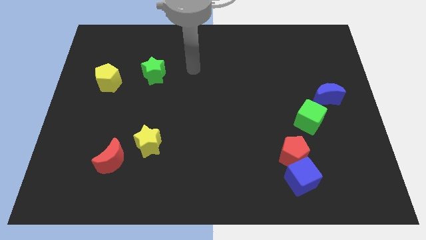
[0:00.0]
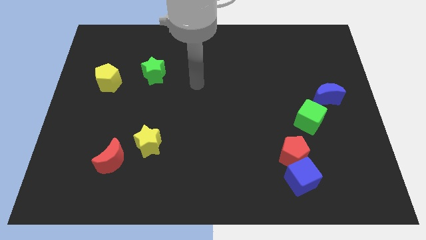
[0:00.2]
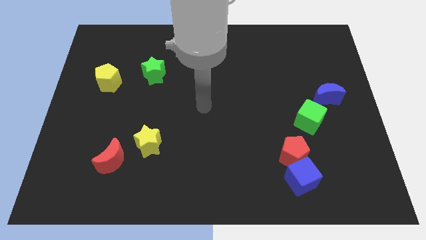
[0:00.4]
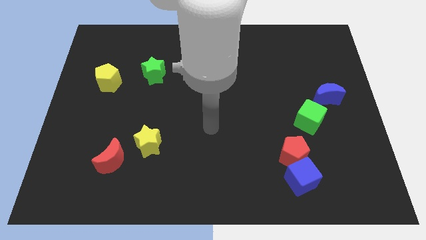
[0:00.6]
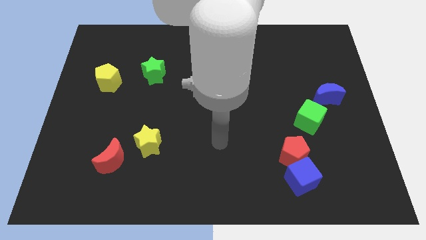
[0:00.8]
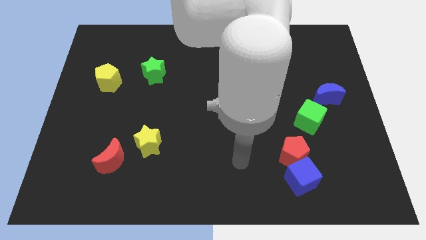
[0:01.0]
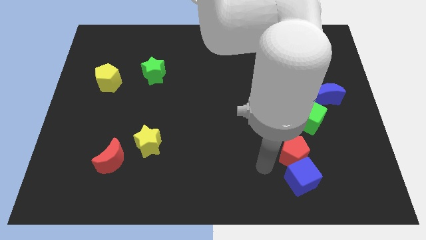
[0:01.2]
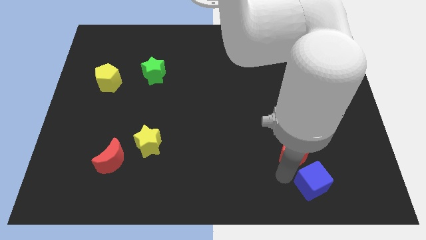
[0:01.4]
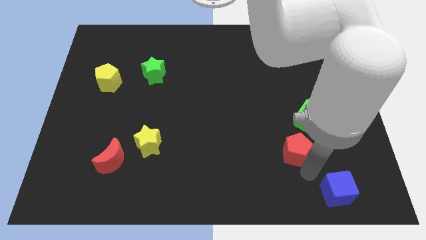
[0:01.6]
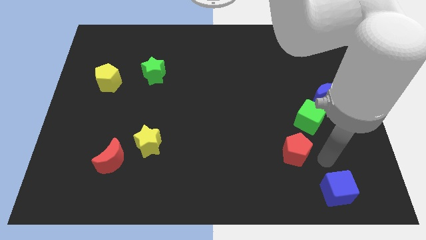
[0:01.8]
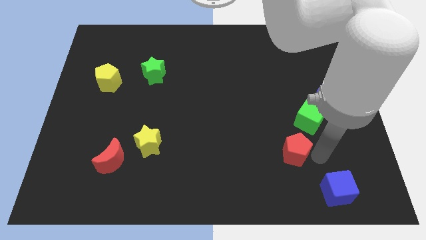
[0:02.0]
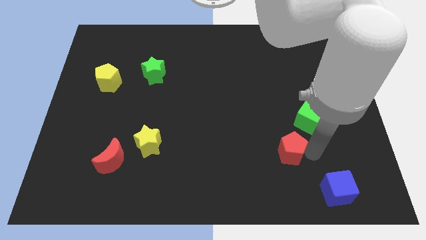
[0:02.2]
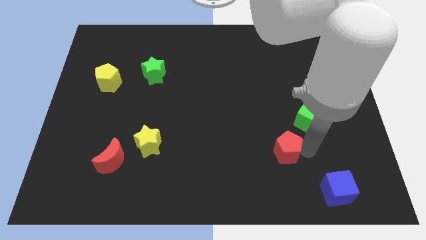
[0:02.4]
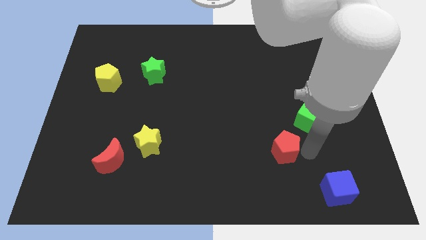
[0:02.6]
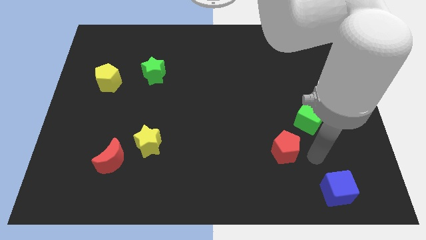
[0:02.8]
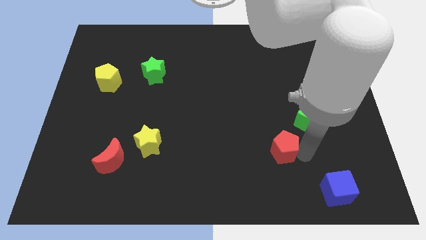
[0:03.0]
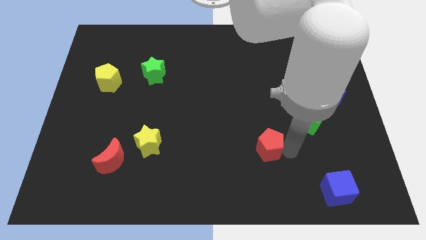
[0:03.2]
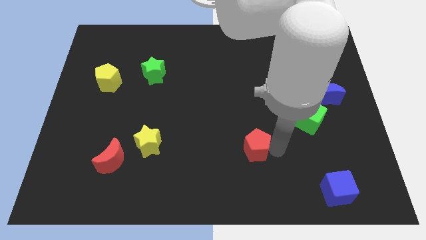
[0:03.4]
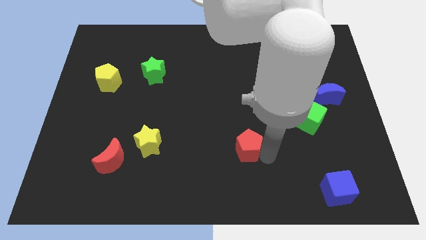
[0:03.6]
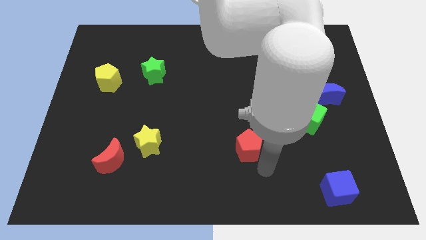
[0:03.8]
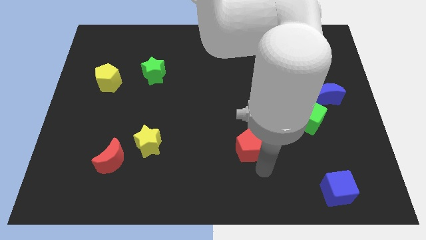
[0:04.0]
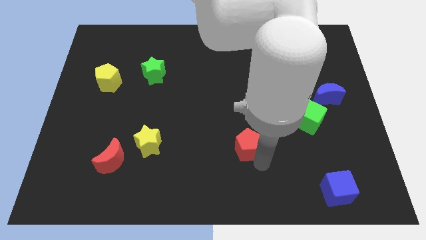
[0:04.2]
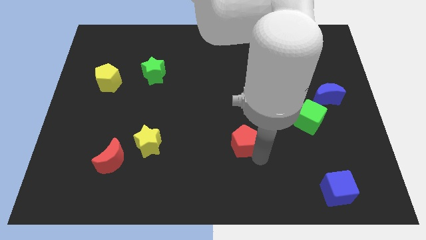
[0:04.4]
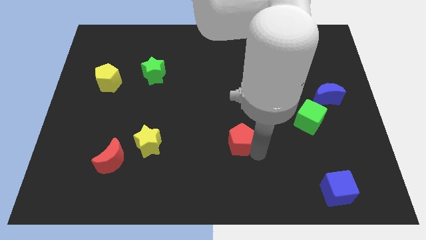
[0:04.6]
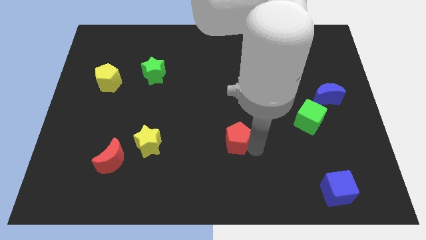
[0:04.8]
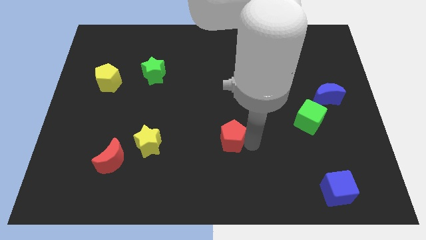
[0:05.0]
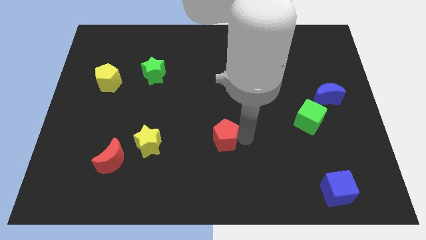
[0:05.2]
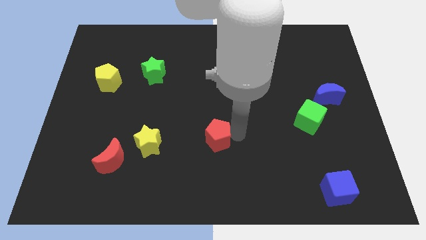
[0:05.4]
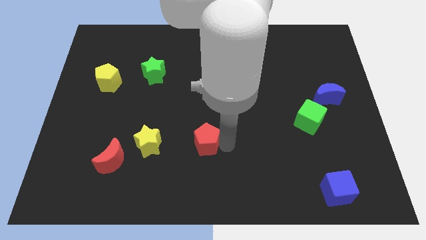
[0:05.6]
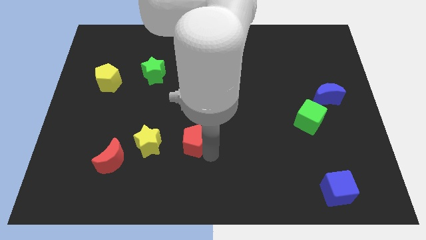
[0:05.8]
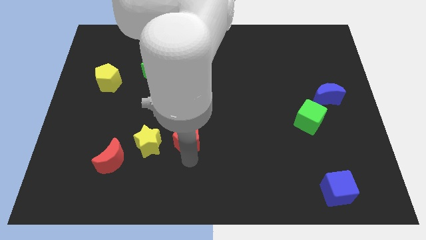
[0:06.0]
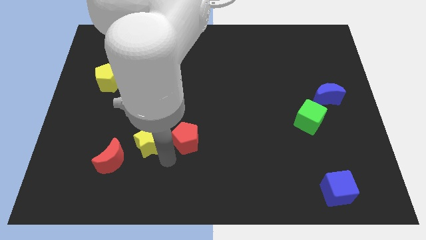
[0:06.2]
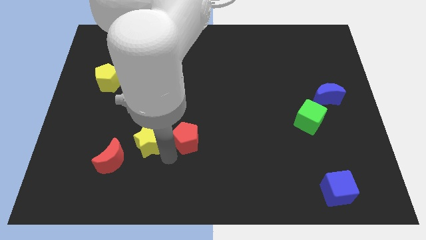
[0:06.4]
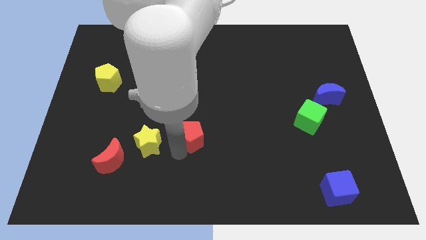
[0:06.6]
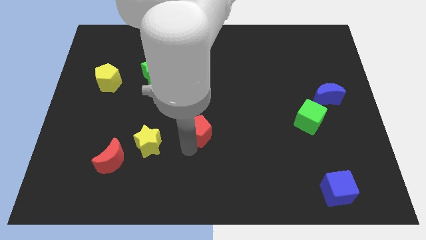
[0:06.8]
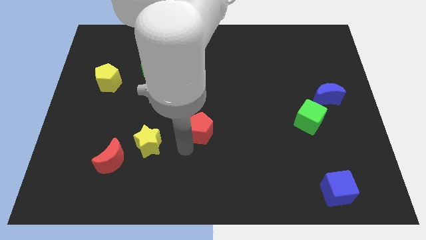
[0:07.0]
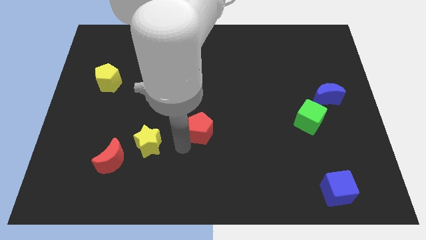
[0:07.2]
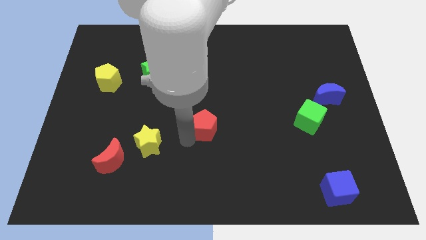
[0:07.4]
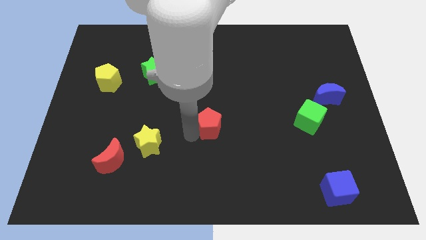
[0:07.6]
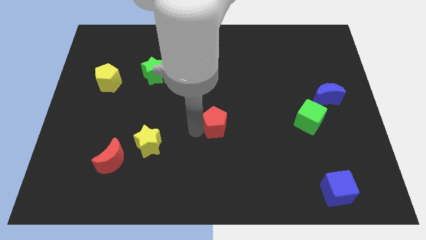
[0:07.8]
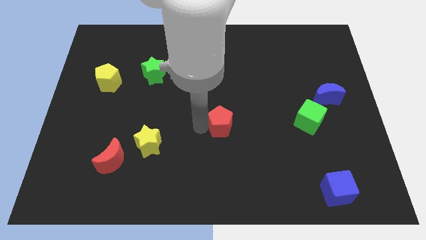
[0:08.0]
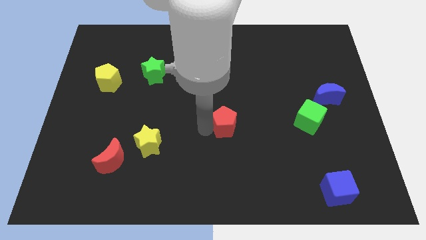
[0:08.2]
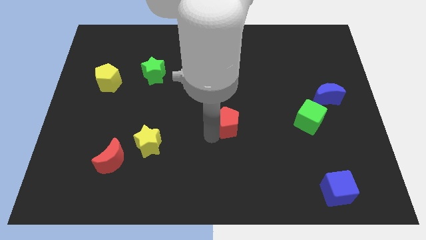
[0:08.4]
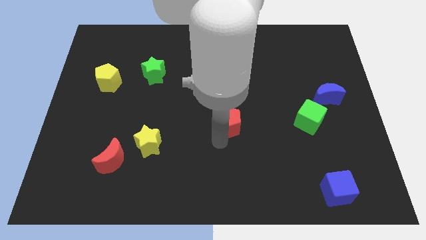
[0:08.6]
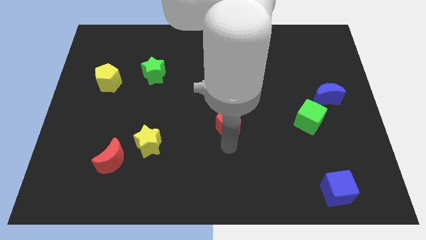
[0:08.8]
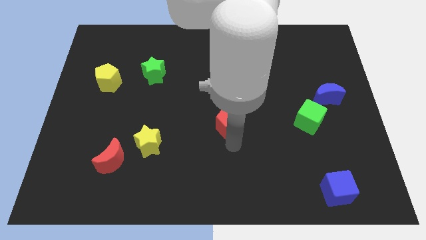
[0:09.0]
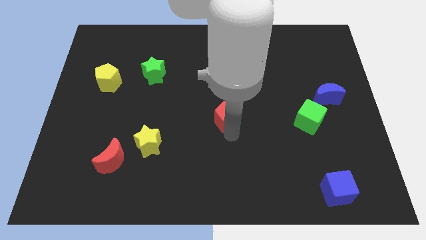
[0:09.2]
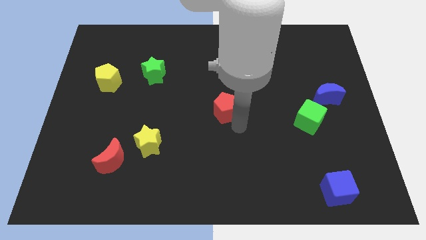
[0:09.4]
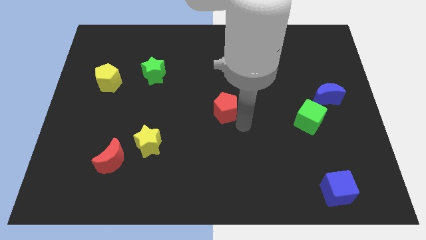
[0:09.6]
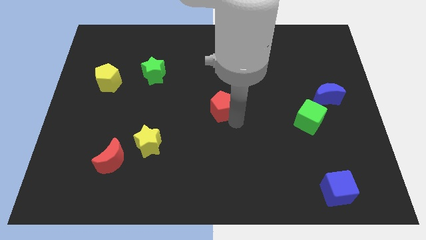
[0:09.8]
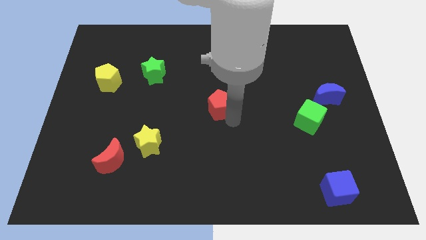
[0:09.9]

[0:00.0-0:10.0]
slide the red pentagon up and left diagonally

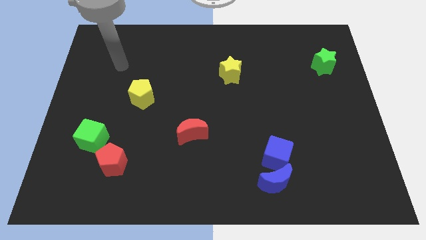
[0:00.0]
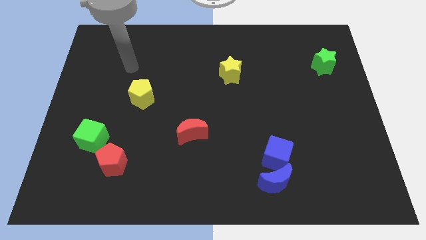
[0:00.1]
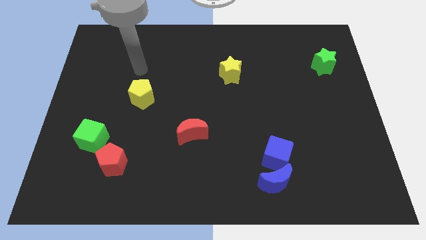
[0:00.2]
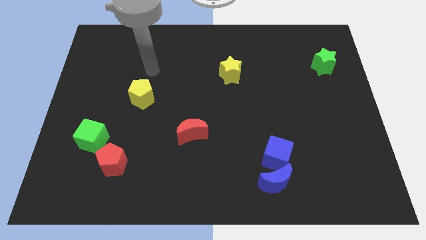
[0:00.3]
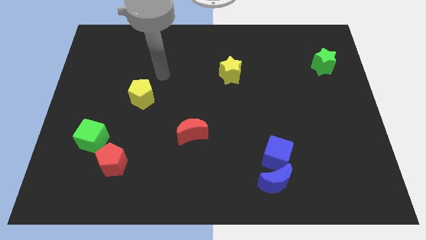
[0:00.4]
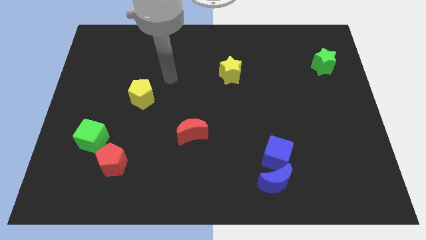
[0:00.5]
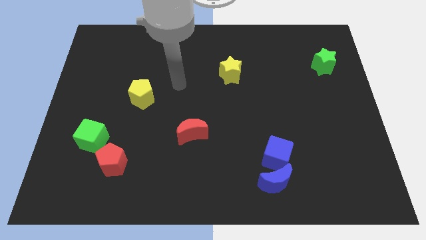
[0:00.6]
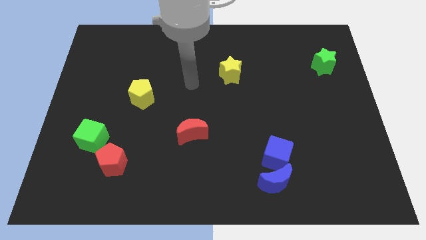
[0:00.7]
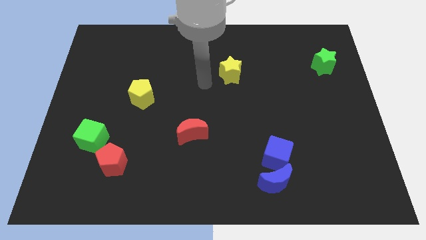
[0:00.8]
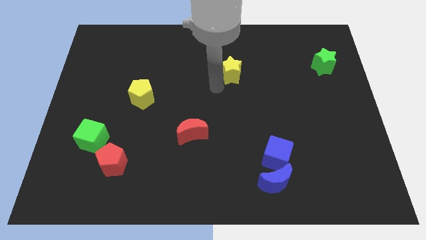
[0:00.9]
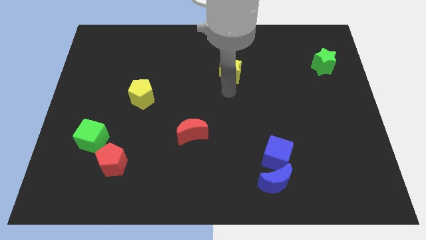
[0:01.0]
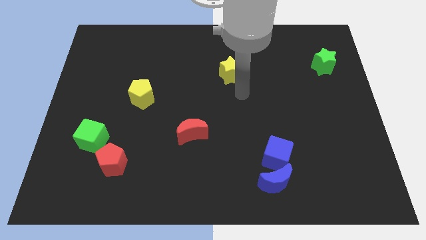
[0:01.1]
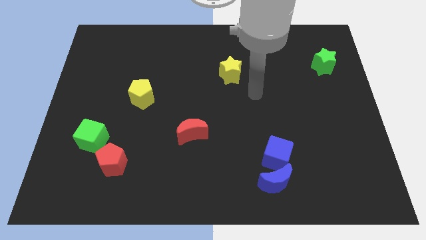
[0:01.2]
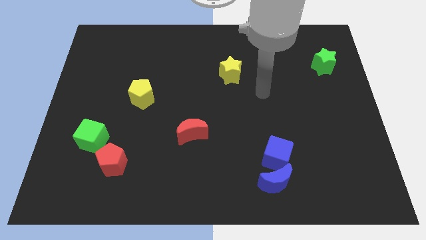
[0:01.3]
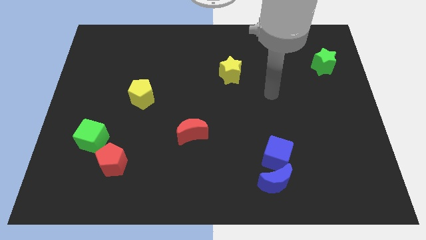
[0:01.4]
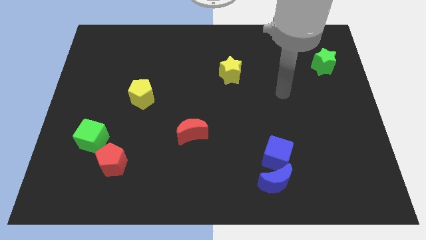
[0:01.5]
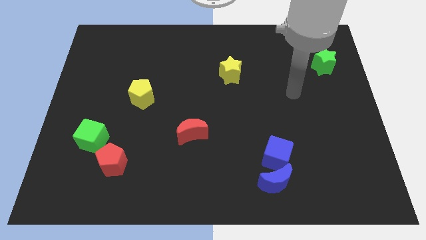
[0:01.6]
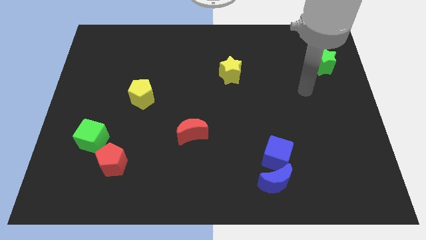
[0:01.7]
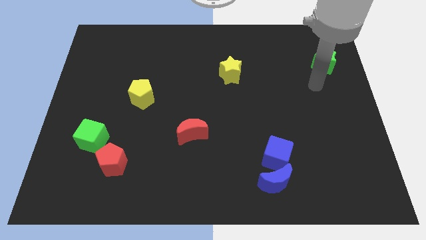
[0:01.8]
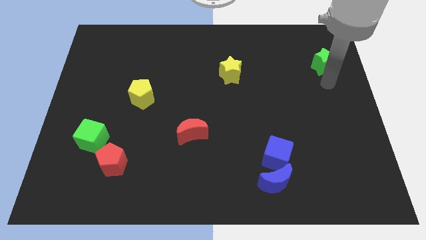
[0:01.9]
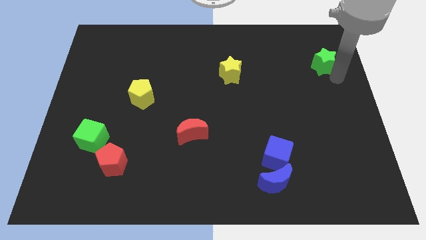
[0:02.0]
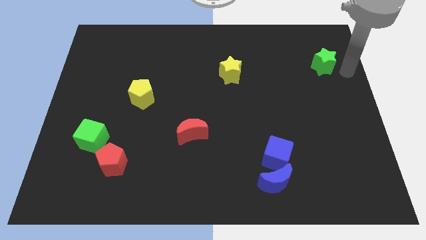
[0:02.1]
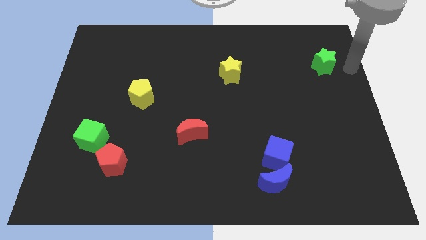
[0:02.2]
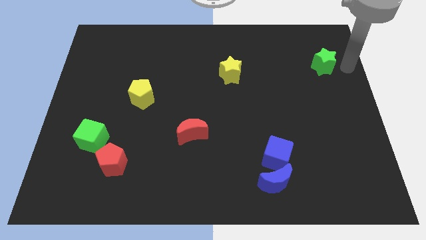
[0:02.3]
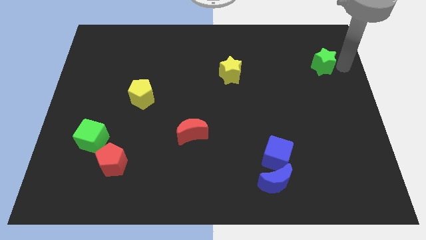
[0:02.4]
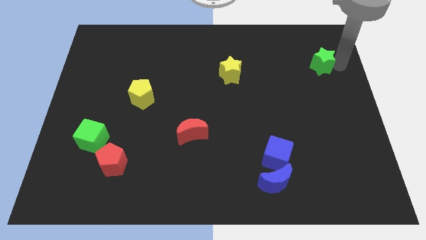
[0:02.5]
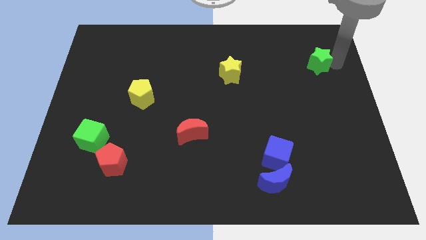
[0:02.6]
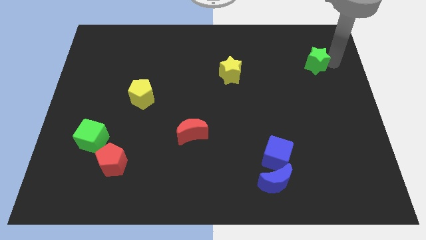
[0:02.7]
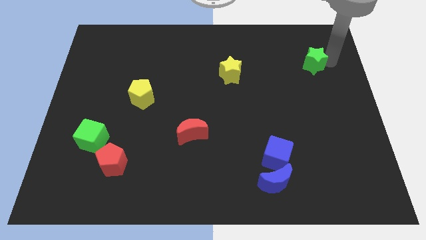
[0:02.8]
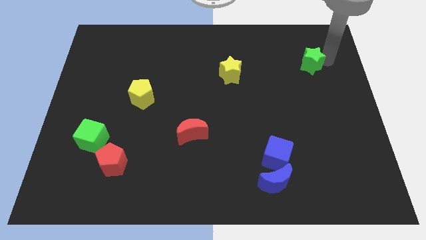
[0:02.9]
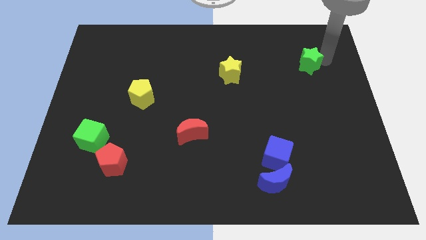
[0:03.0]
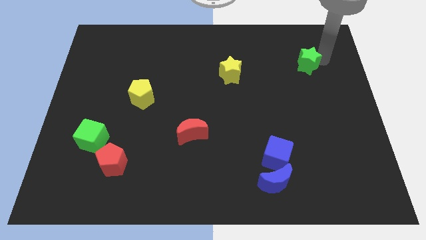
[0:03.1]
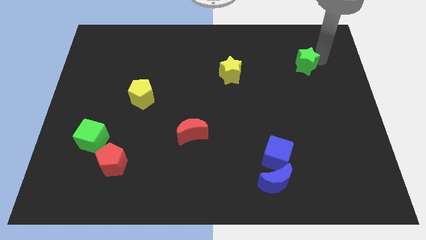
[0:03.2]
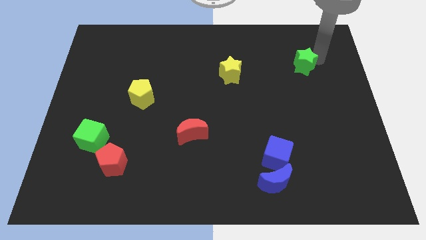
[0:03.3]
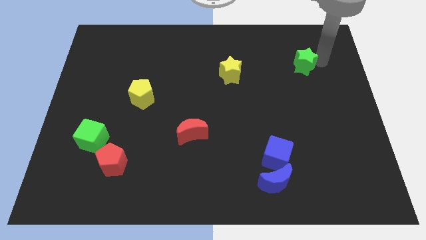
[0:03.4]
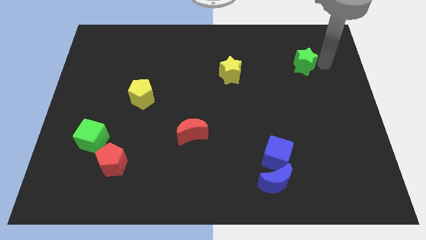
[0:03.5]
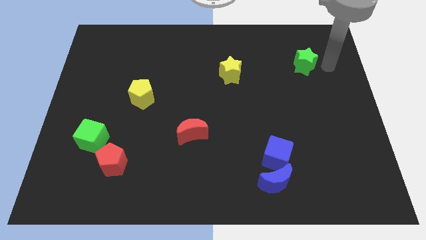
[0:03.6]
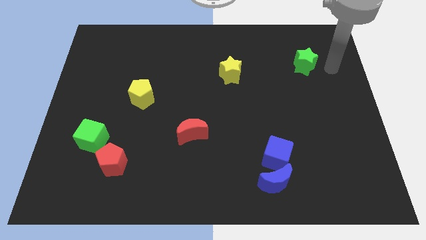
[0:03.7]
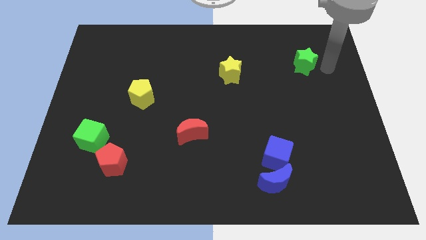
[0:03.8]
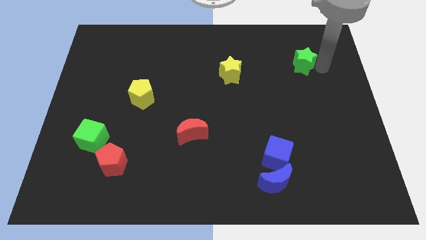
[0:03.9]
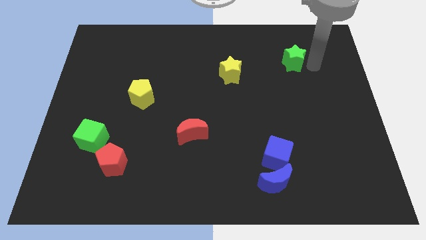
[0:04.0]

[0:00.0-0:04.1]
push the green star to the left a bit
